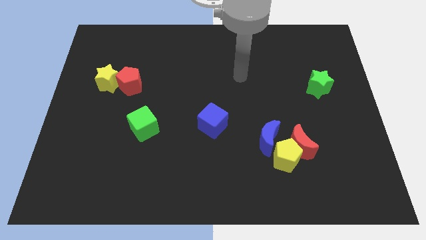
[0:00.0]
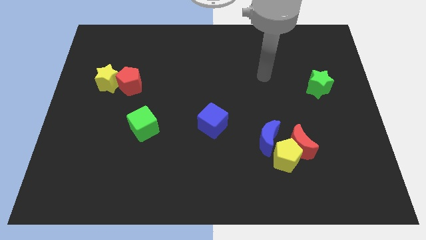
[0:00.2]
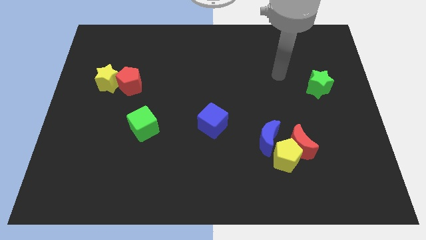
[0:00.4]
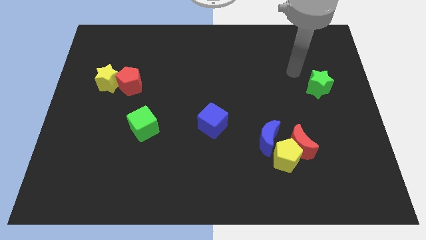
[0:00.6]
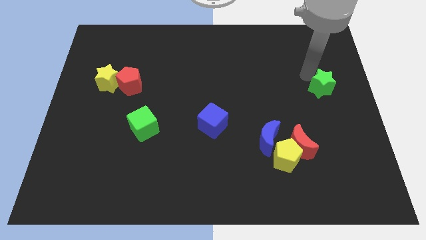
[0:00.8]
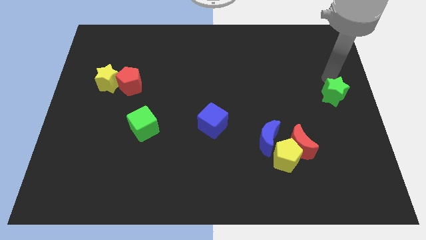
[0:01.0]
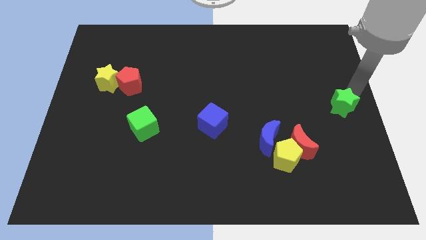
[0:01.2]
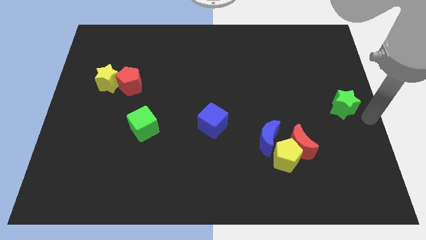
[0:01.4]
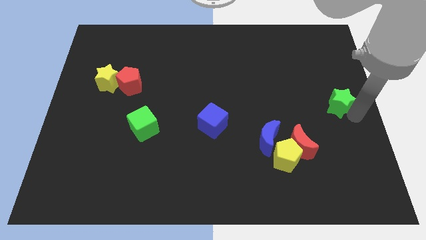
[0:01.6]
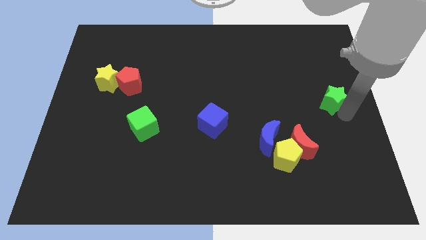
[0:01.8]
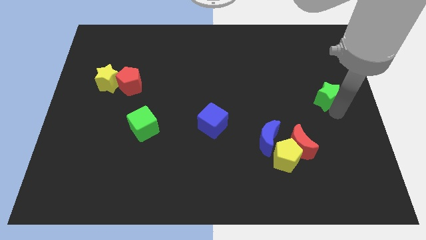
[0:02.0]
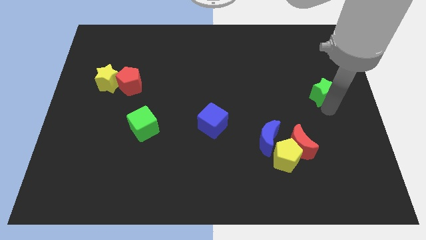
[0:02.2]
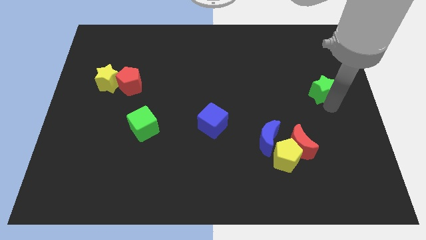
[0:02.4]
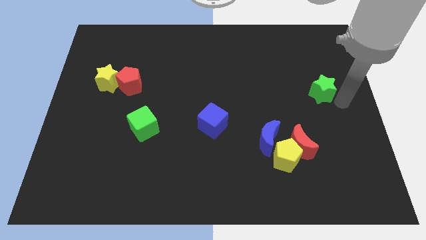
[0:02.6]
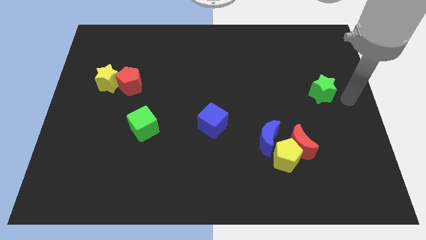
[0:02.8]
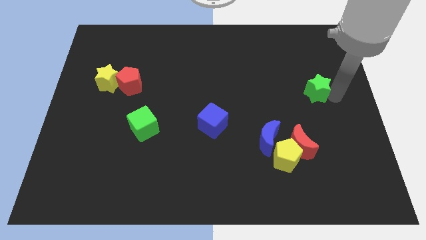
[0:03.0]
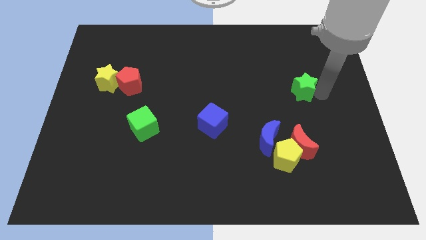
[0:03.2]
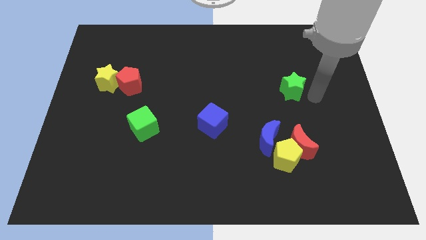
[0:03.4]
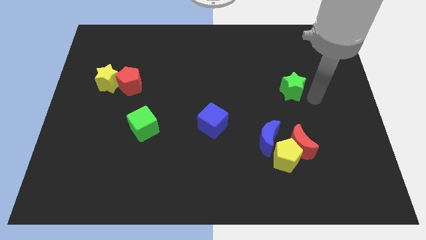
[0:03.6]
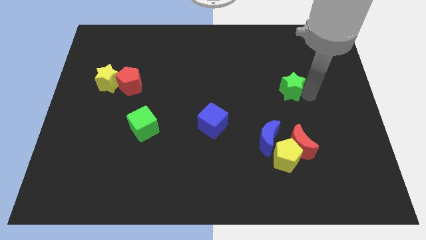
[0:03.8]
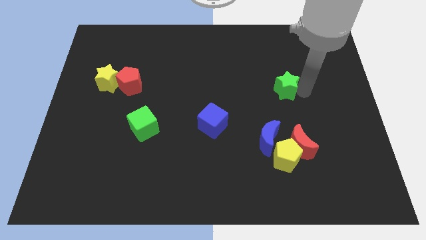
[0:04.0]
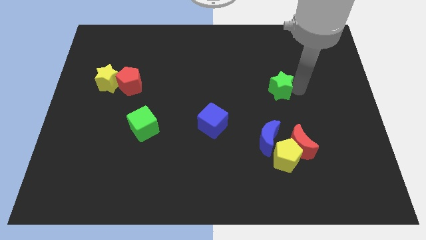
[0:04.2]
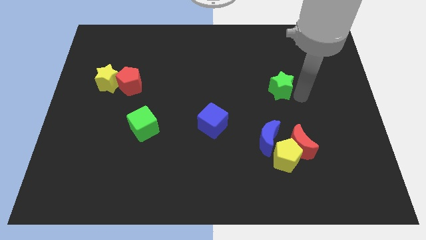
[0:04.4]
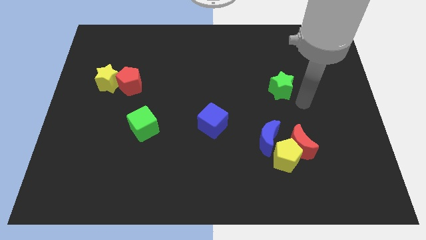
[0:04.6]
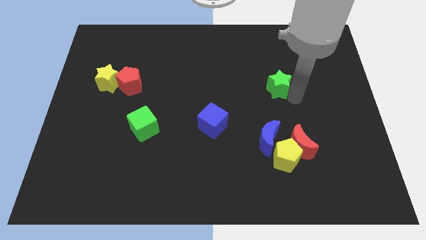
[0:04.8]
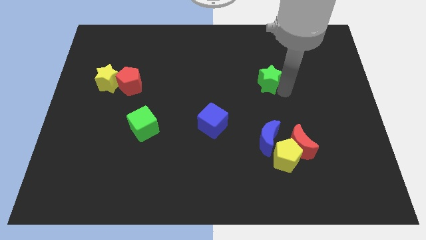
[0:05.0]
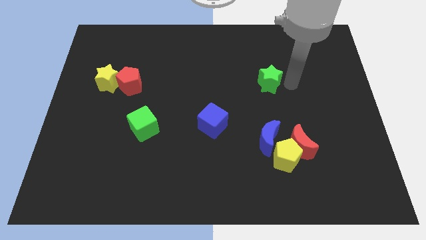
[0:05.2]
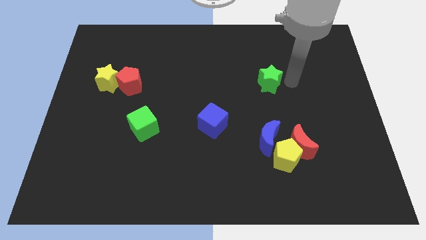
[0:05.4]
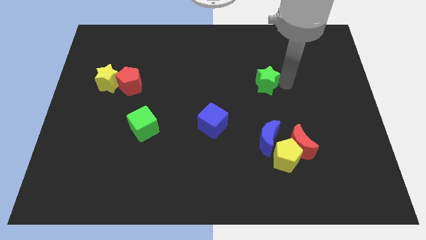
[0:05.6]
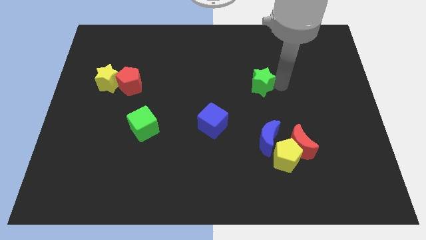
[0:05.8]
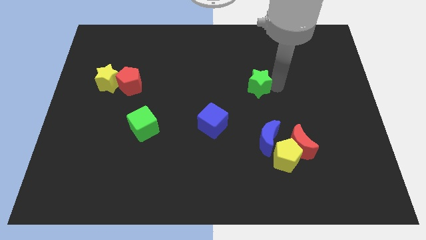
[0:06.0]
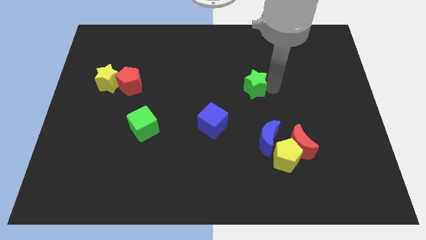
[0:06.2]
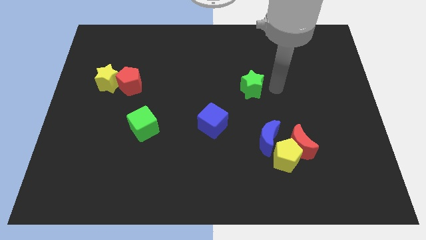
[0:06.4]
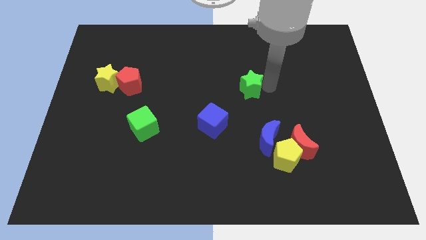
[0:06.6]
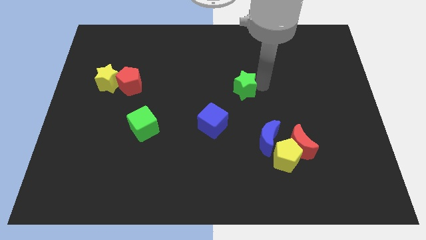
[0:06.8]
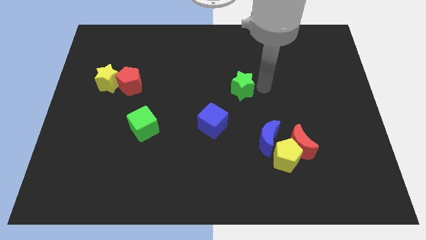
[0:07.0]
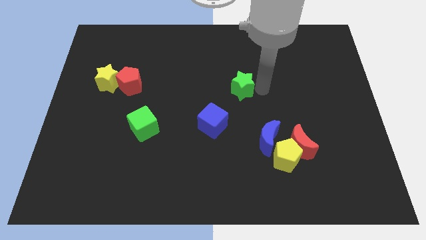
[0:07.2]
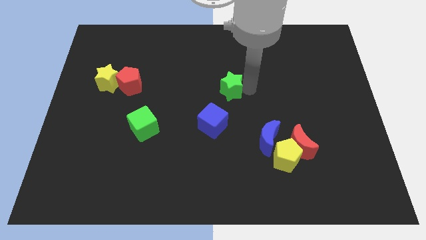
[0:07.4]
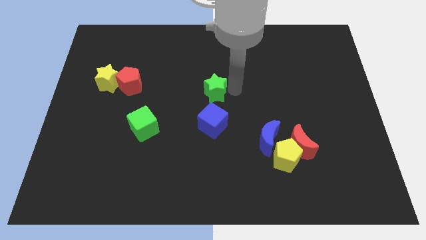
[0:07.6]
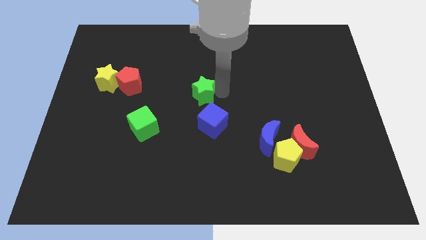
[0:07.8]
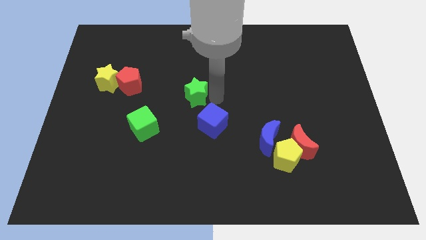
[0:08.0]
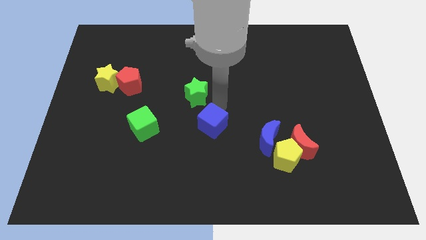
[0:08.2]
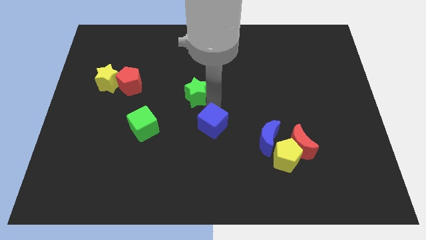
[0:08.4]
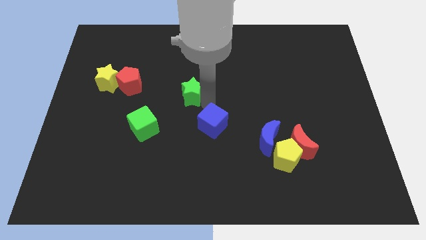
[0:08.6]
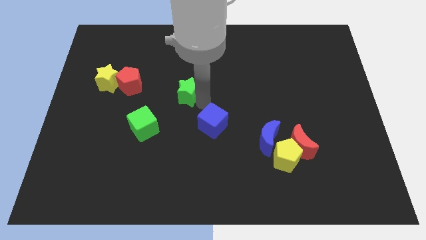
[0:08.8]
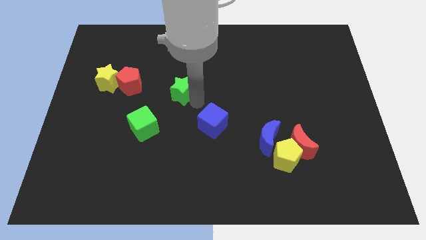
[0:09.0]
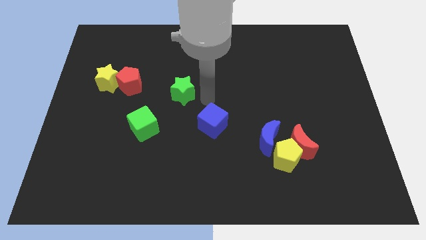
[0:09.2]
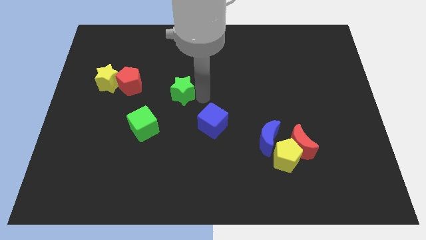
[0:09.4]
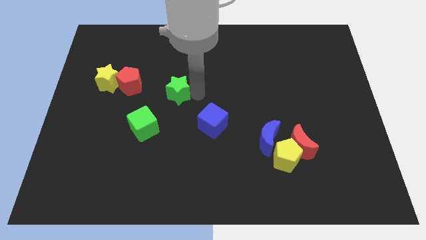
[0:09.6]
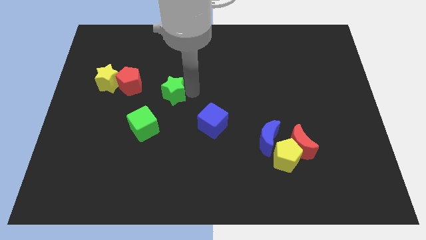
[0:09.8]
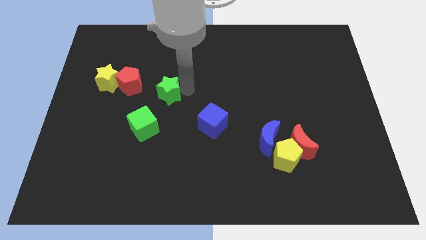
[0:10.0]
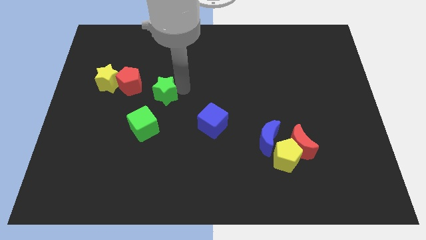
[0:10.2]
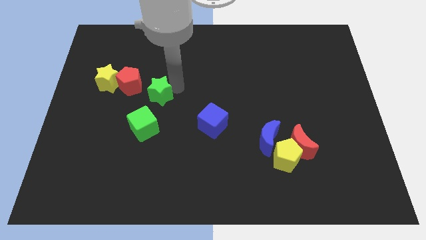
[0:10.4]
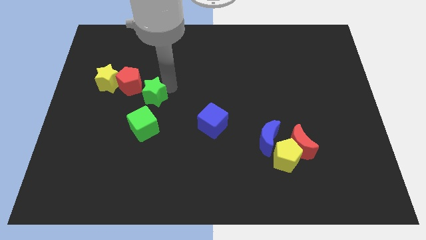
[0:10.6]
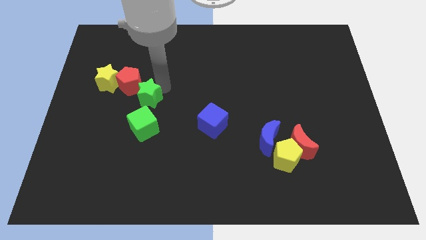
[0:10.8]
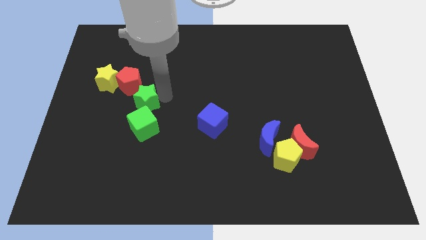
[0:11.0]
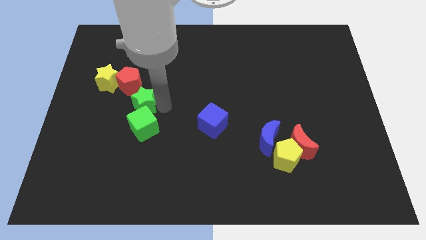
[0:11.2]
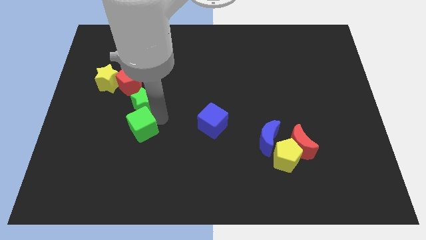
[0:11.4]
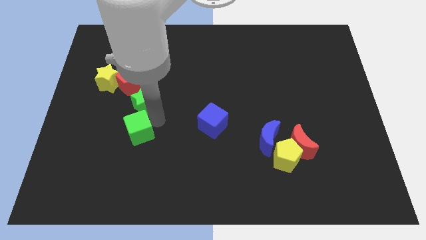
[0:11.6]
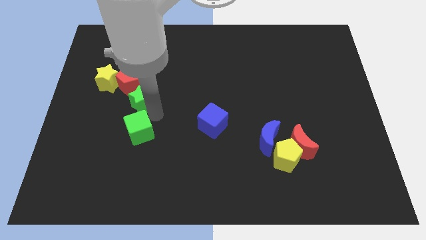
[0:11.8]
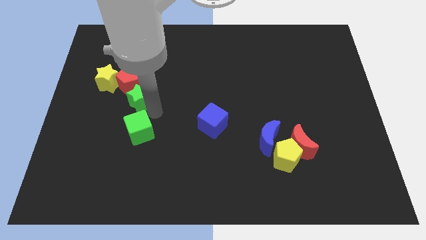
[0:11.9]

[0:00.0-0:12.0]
slide the green star to the red pentagon
